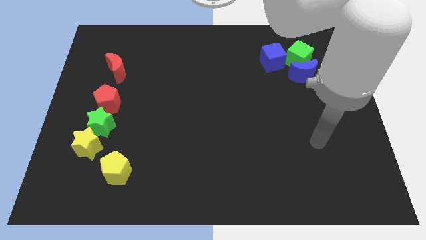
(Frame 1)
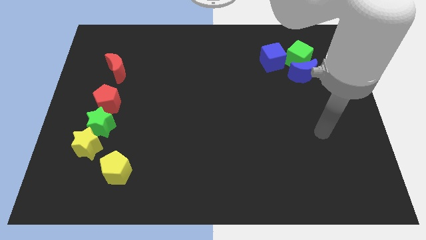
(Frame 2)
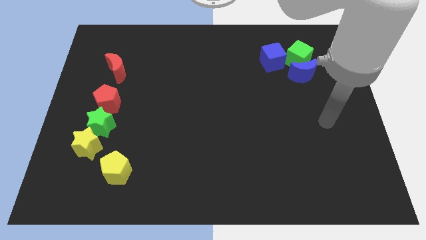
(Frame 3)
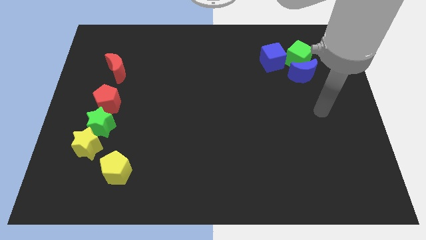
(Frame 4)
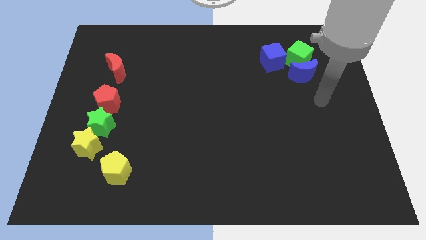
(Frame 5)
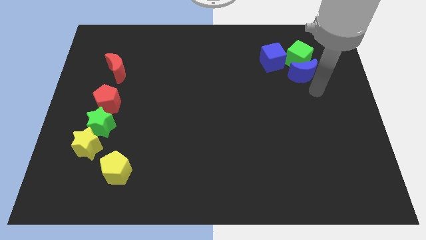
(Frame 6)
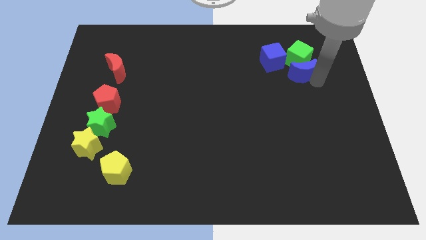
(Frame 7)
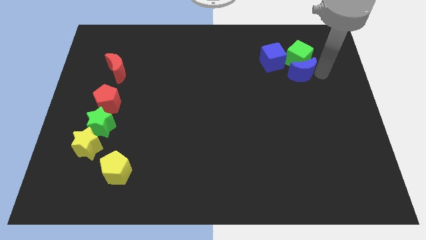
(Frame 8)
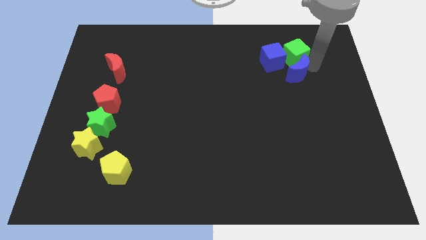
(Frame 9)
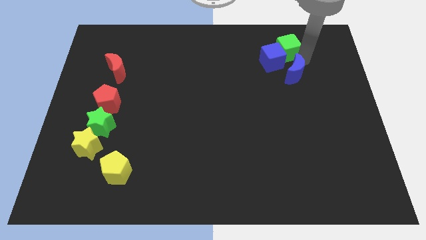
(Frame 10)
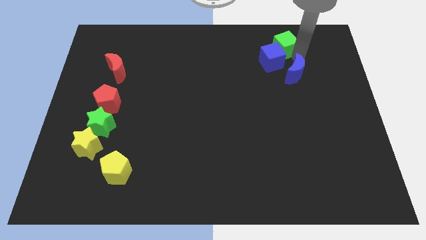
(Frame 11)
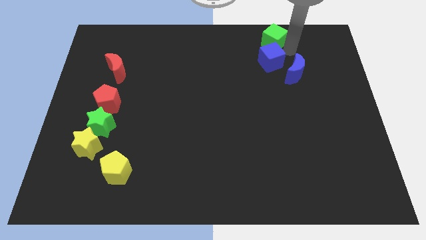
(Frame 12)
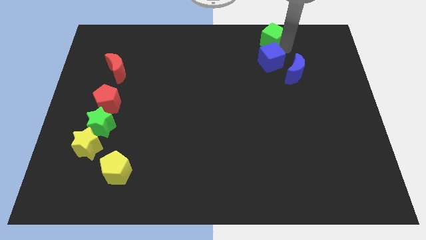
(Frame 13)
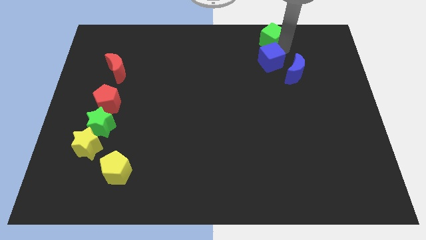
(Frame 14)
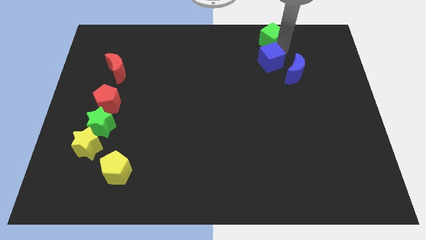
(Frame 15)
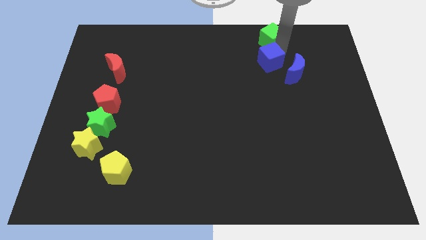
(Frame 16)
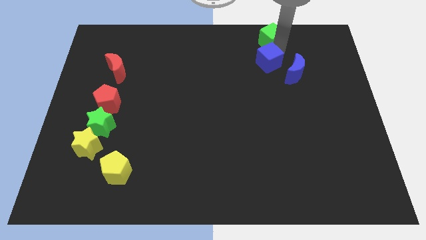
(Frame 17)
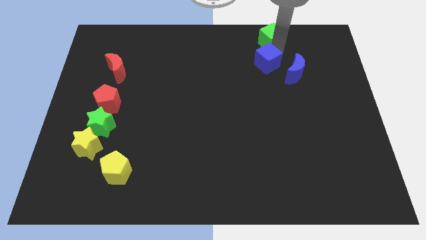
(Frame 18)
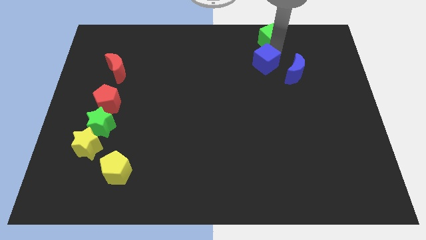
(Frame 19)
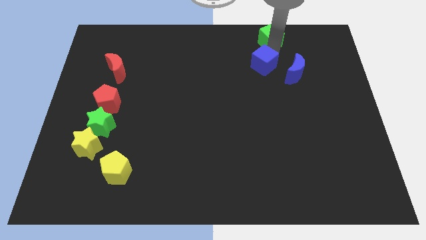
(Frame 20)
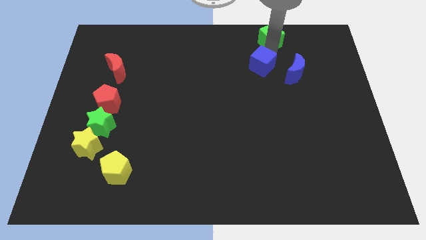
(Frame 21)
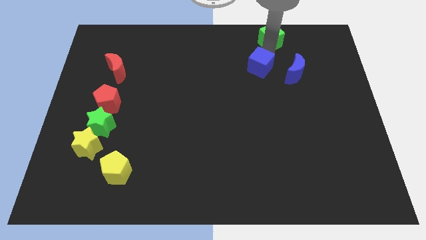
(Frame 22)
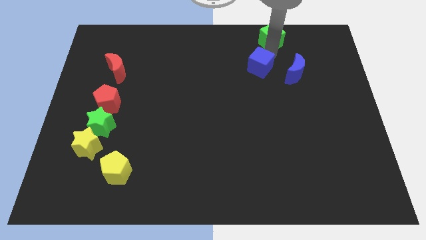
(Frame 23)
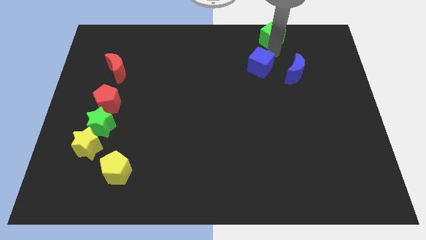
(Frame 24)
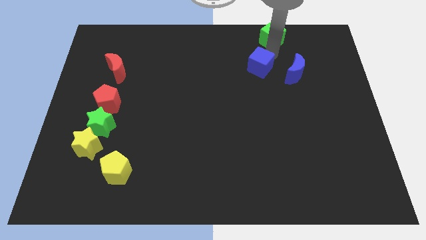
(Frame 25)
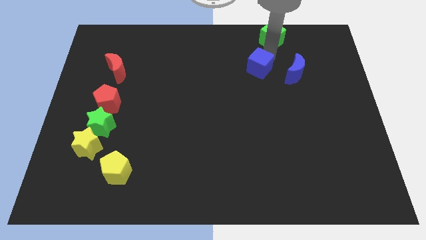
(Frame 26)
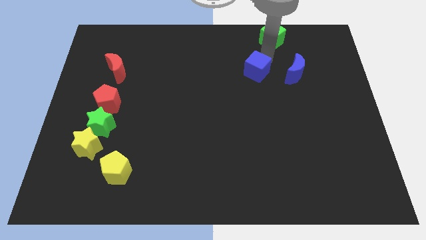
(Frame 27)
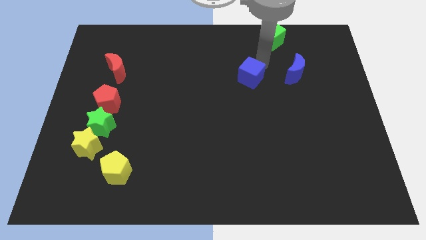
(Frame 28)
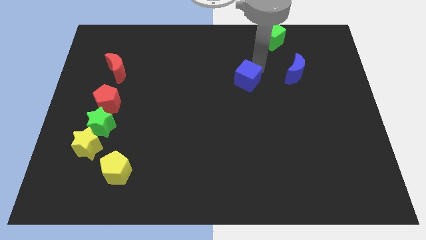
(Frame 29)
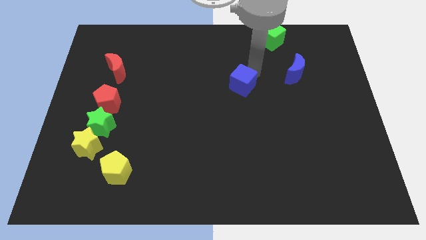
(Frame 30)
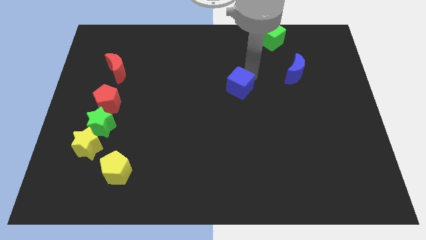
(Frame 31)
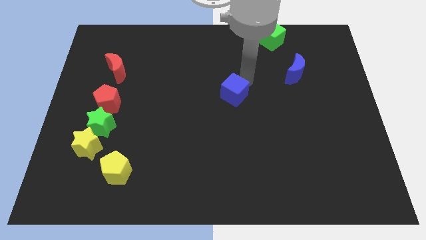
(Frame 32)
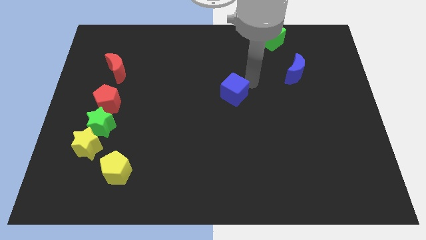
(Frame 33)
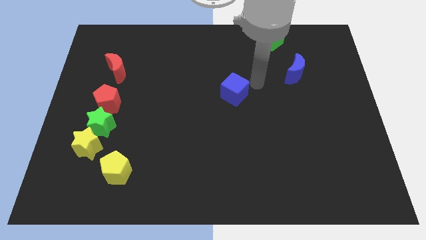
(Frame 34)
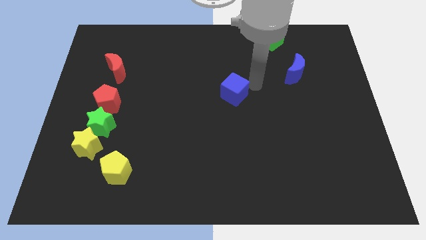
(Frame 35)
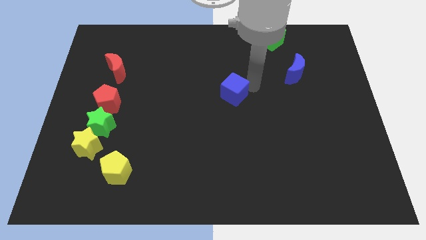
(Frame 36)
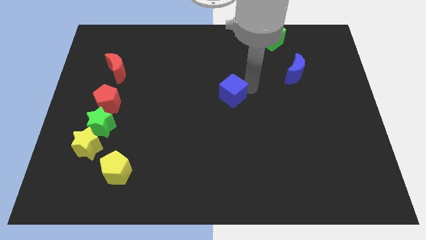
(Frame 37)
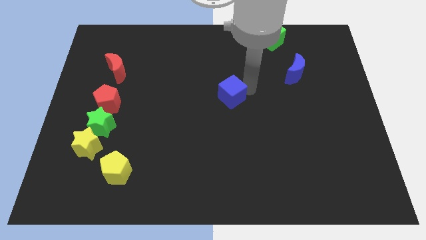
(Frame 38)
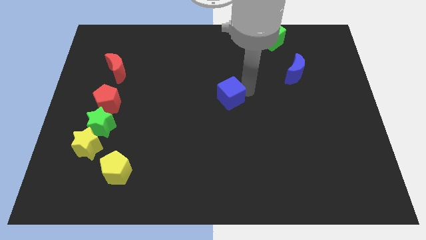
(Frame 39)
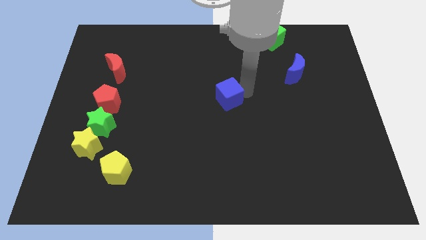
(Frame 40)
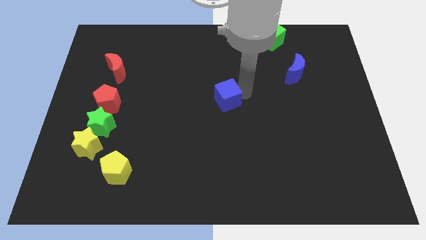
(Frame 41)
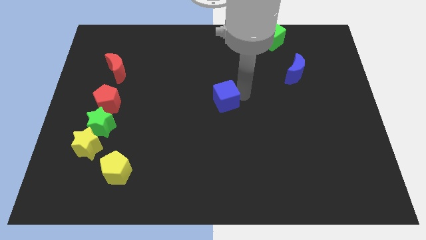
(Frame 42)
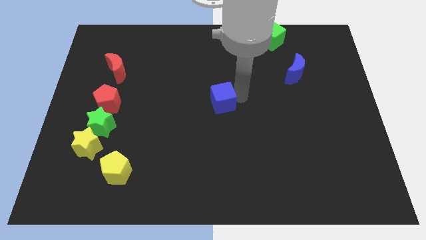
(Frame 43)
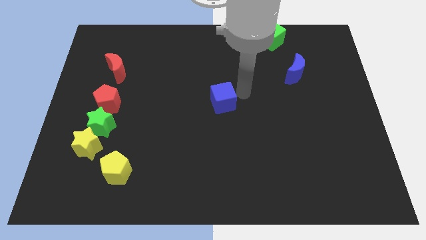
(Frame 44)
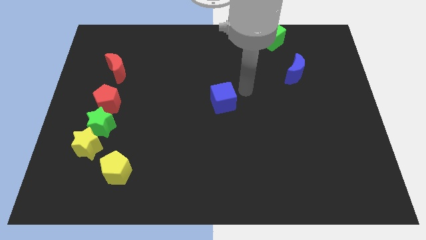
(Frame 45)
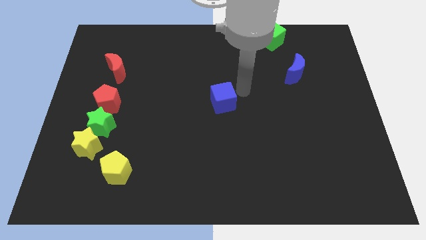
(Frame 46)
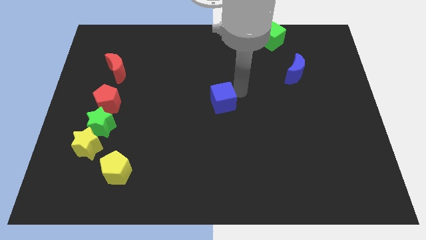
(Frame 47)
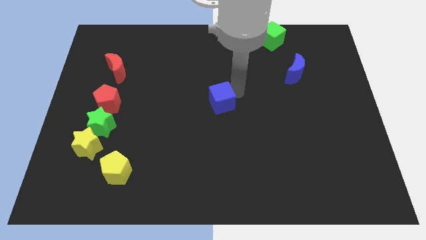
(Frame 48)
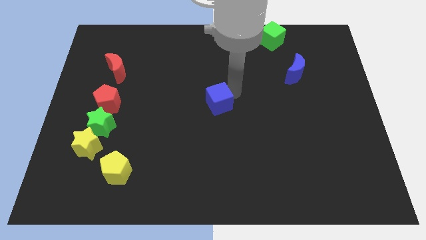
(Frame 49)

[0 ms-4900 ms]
slide the blue cube diagonally downwards and to the left

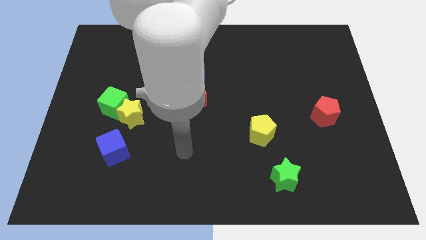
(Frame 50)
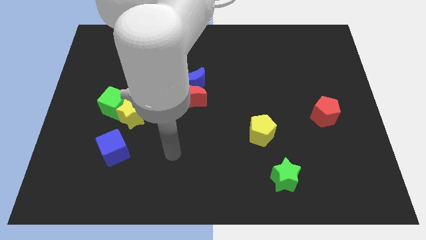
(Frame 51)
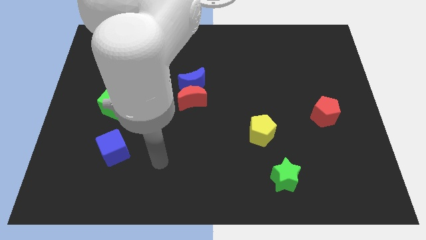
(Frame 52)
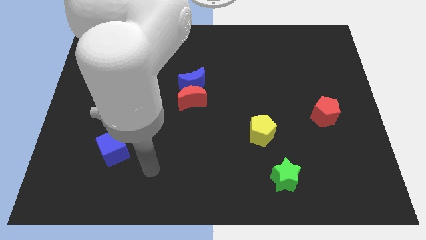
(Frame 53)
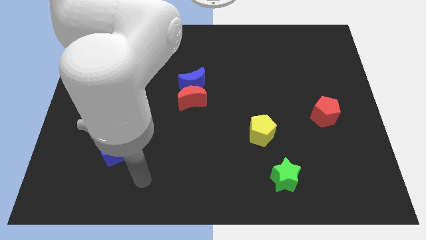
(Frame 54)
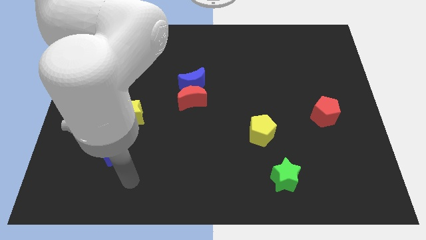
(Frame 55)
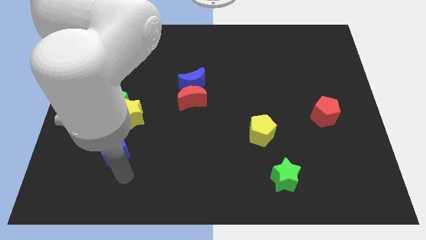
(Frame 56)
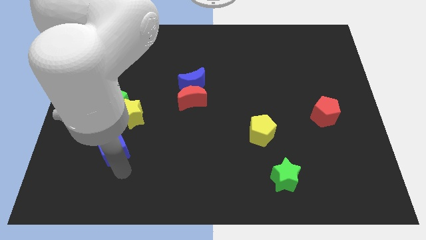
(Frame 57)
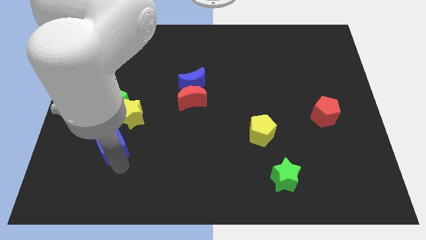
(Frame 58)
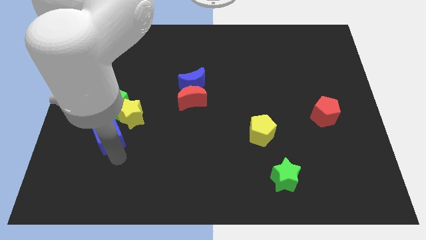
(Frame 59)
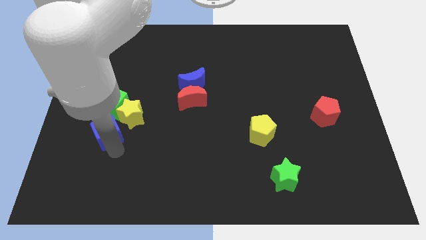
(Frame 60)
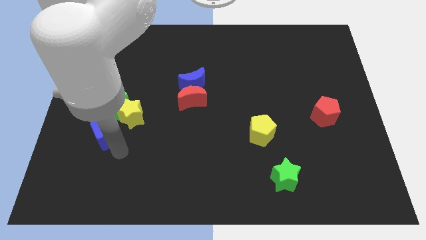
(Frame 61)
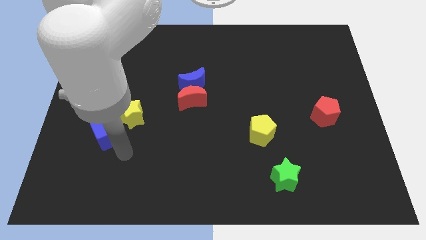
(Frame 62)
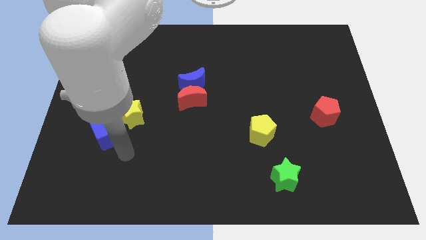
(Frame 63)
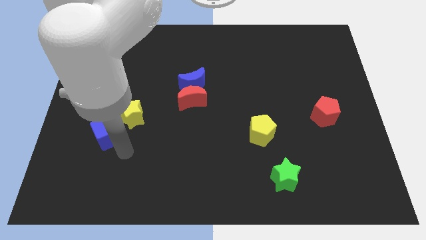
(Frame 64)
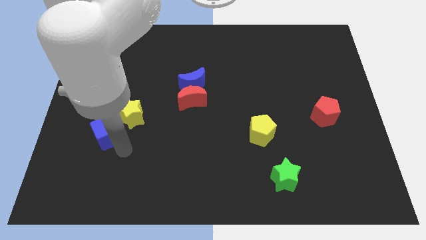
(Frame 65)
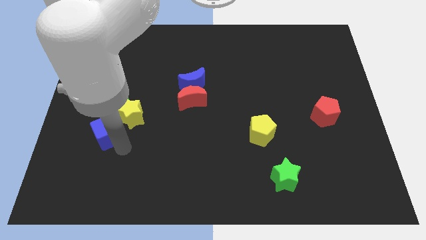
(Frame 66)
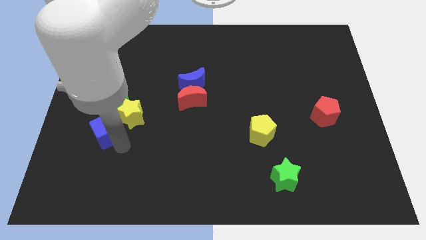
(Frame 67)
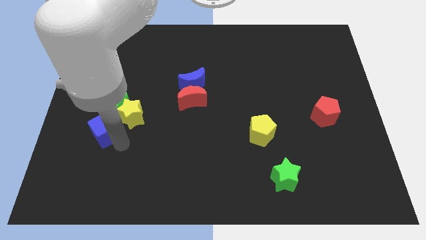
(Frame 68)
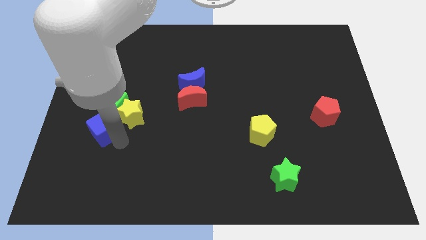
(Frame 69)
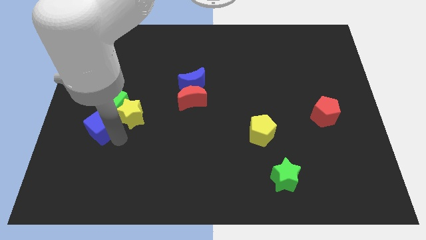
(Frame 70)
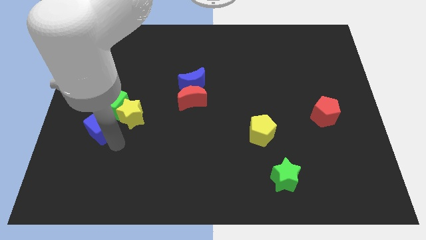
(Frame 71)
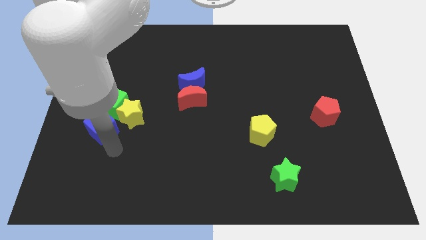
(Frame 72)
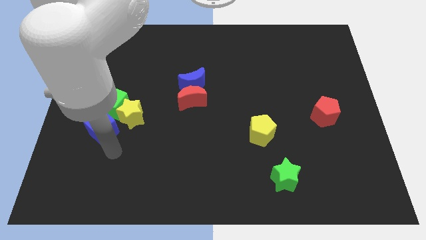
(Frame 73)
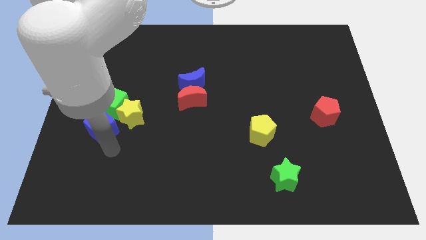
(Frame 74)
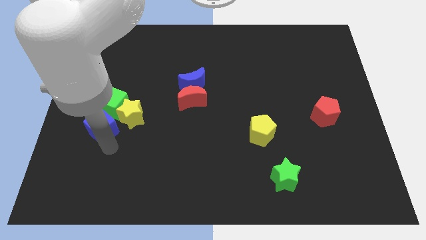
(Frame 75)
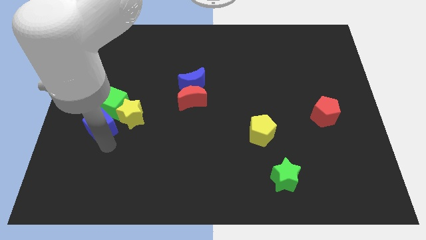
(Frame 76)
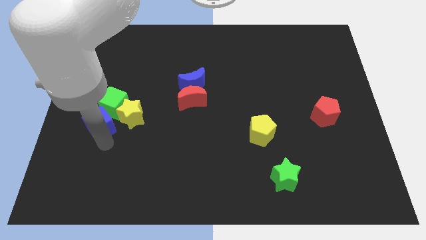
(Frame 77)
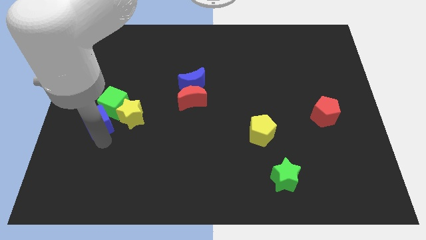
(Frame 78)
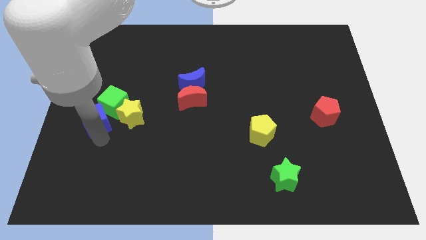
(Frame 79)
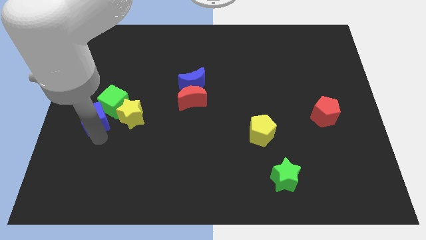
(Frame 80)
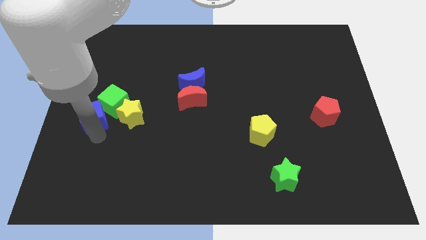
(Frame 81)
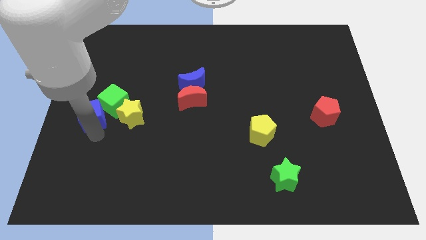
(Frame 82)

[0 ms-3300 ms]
push the blue cube up a little bit
